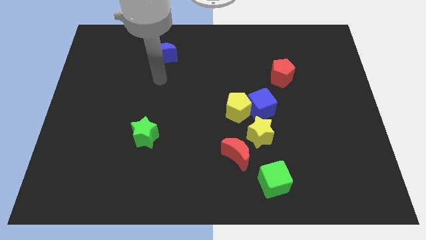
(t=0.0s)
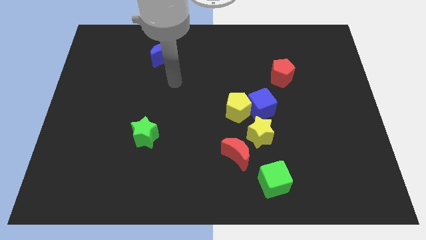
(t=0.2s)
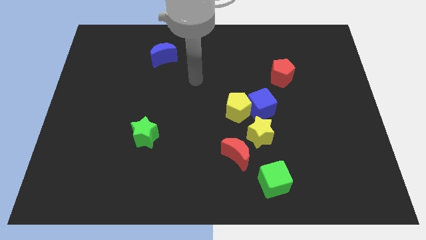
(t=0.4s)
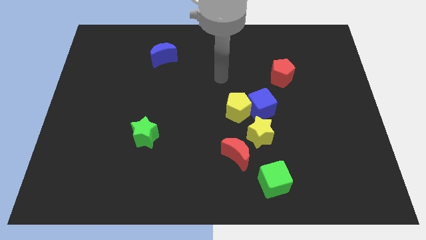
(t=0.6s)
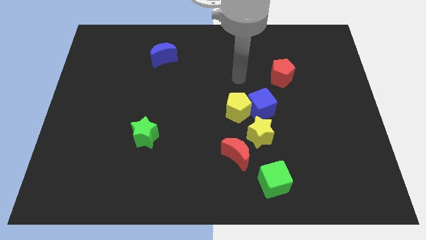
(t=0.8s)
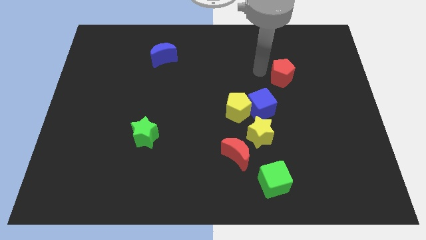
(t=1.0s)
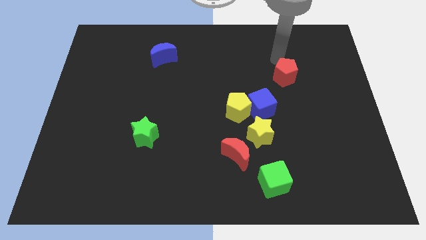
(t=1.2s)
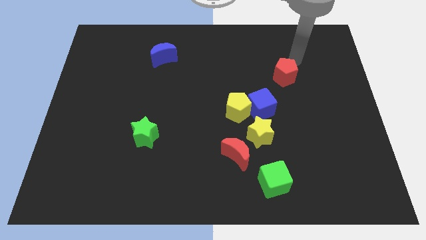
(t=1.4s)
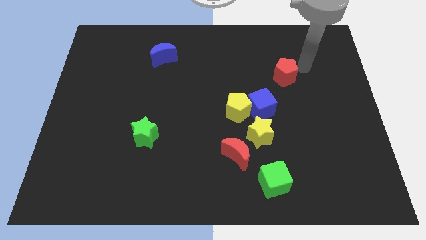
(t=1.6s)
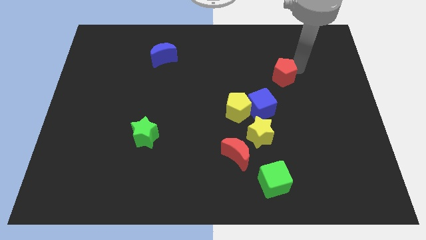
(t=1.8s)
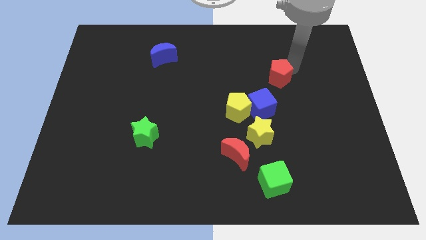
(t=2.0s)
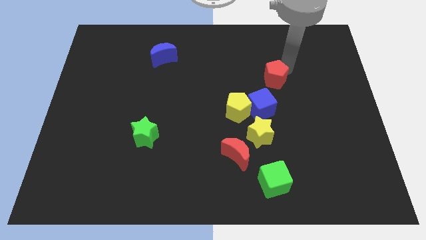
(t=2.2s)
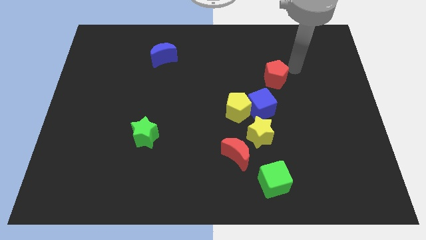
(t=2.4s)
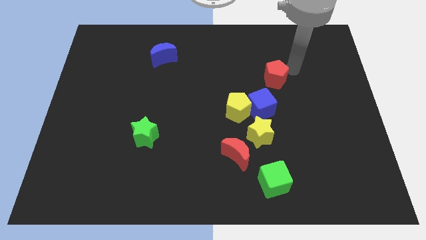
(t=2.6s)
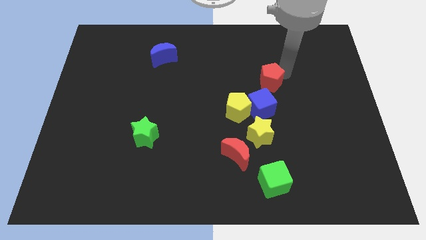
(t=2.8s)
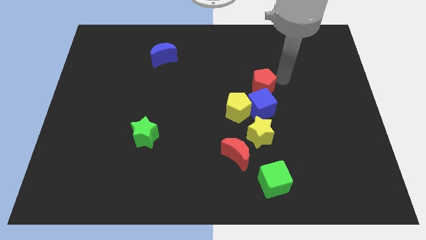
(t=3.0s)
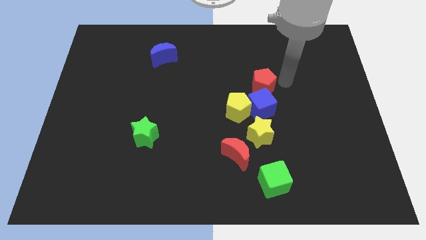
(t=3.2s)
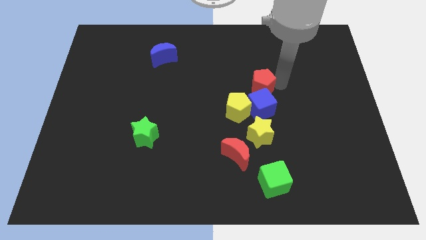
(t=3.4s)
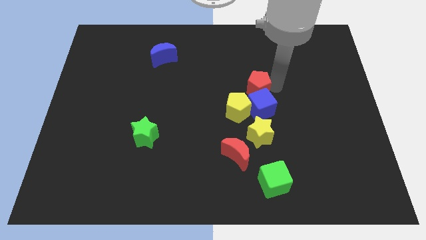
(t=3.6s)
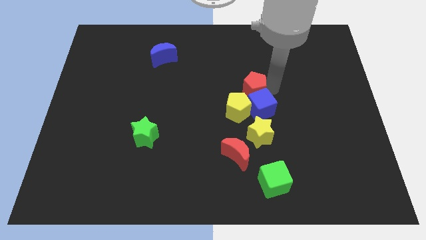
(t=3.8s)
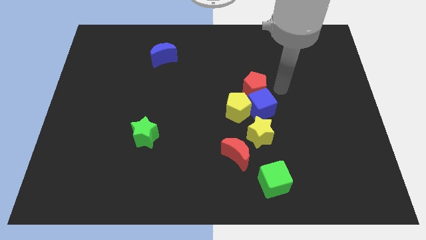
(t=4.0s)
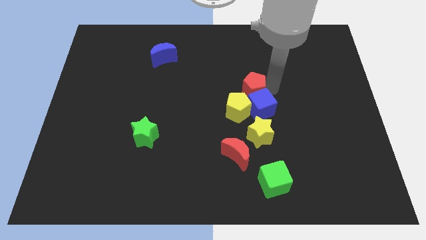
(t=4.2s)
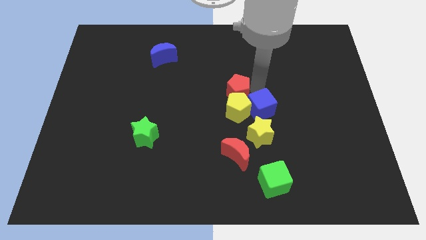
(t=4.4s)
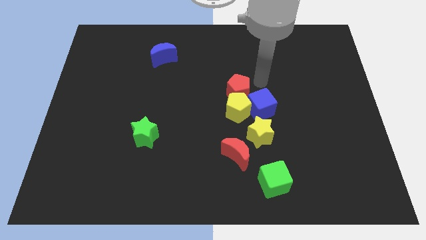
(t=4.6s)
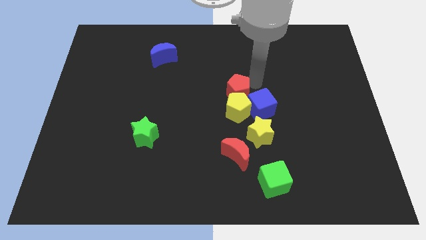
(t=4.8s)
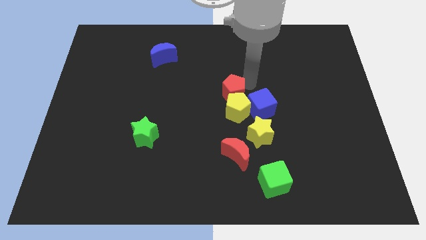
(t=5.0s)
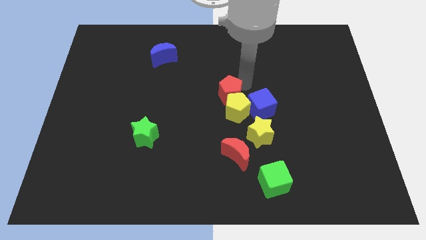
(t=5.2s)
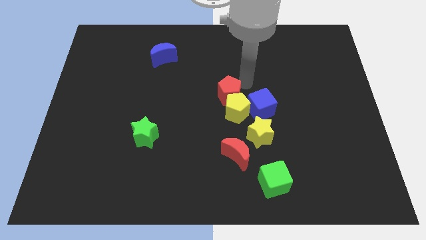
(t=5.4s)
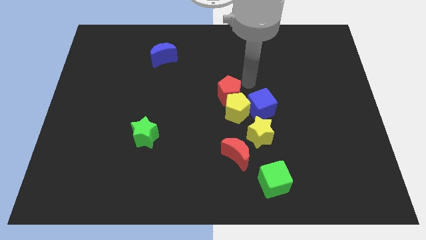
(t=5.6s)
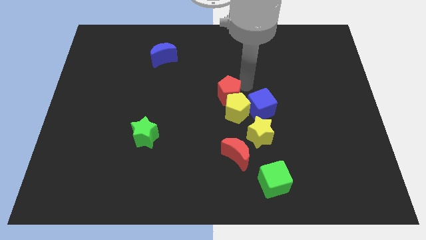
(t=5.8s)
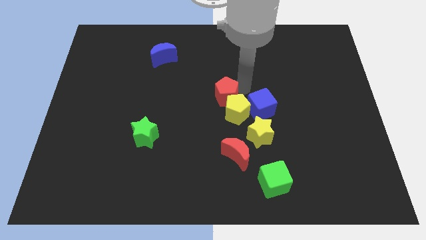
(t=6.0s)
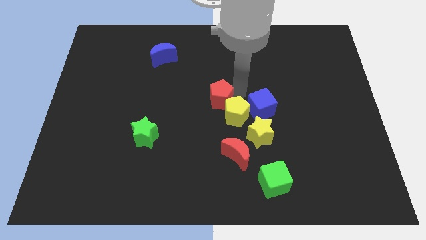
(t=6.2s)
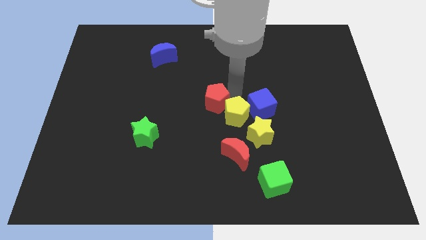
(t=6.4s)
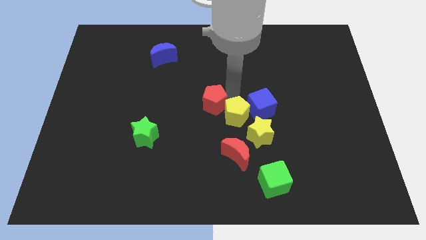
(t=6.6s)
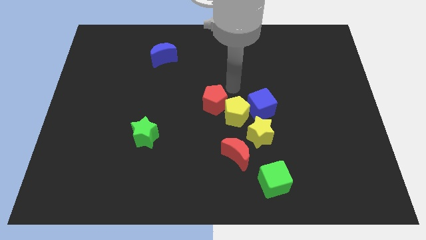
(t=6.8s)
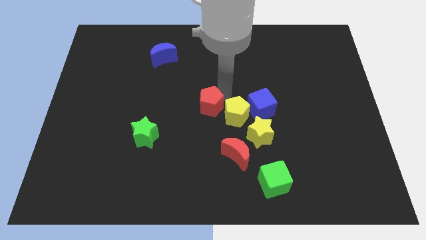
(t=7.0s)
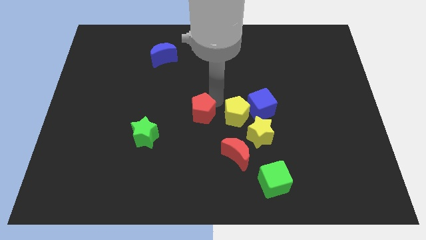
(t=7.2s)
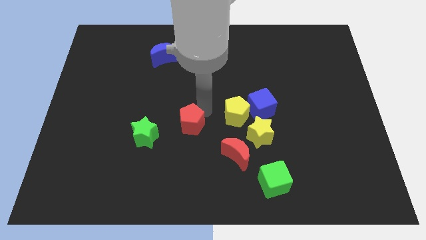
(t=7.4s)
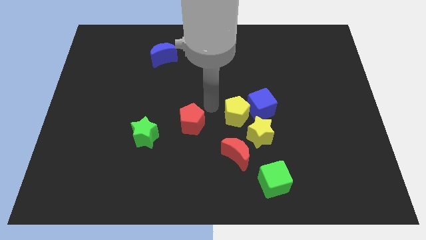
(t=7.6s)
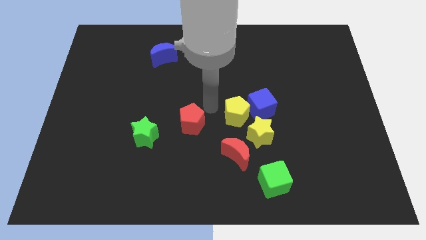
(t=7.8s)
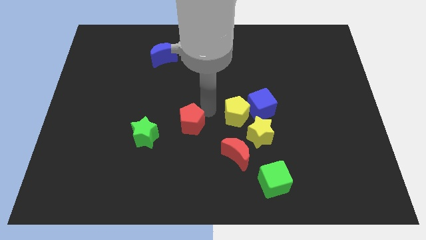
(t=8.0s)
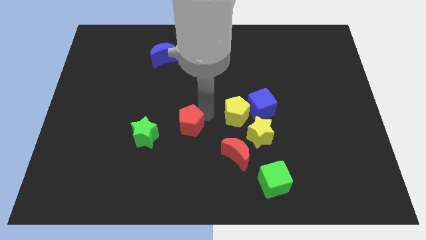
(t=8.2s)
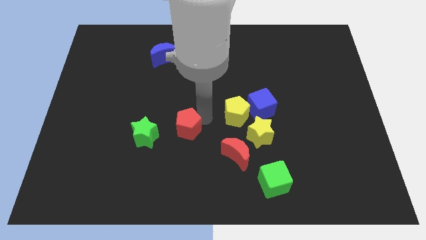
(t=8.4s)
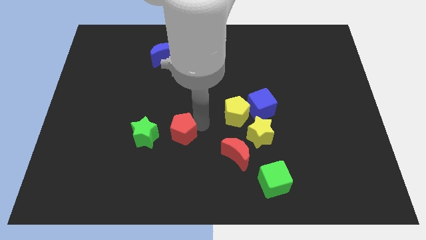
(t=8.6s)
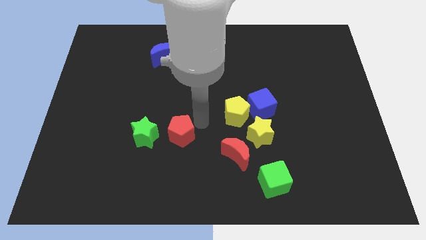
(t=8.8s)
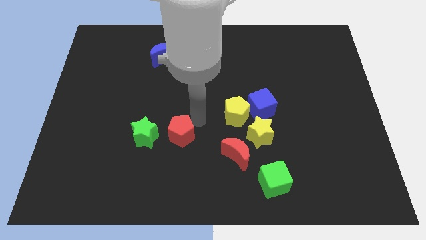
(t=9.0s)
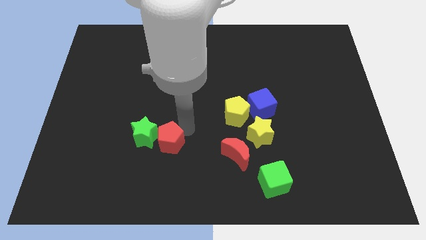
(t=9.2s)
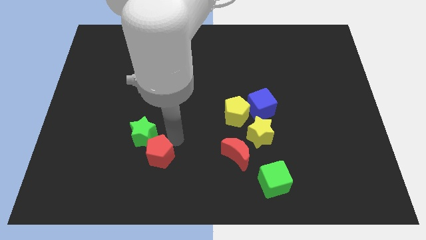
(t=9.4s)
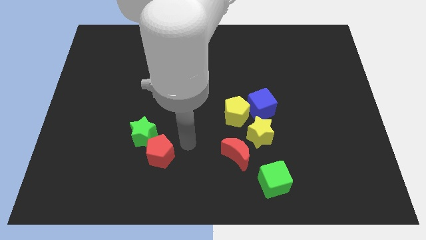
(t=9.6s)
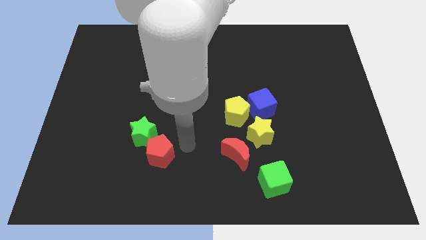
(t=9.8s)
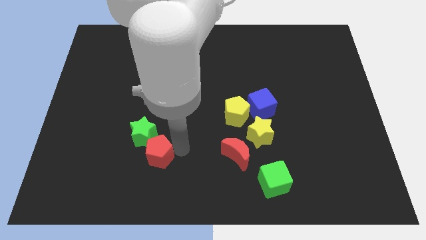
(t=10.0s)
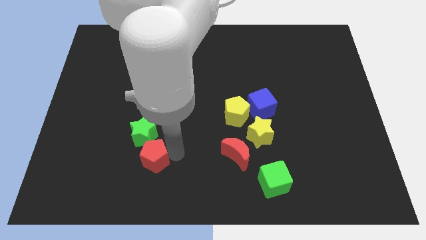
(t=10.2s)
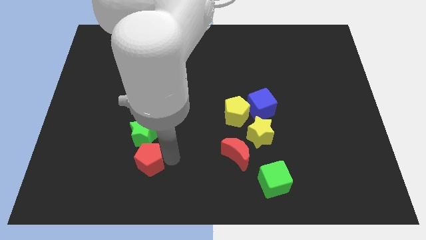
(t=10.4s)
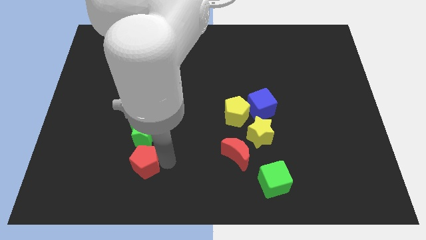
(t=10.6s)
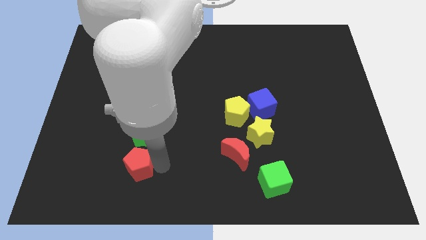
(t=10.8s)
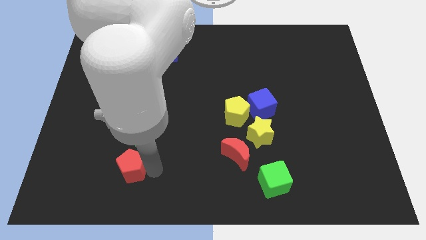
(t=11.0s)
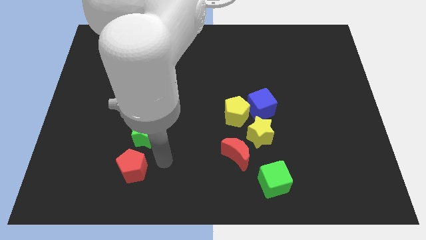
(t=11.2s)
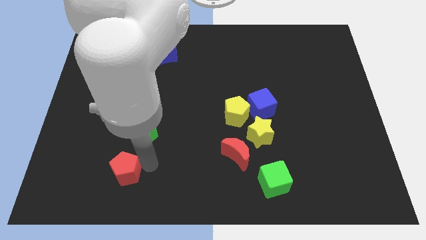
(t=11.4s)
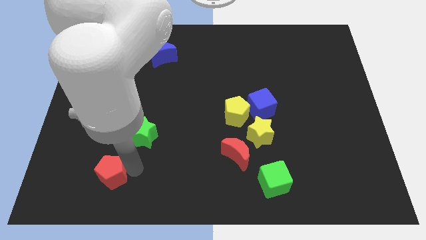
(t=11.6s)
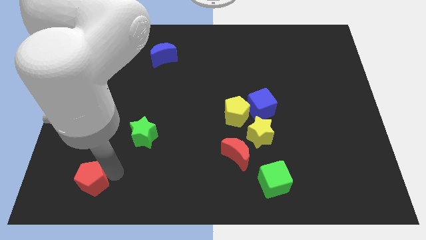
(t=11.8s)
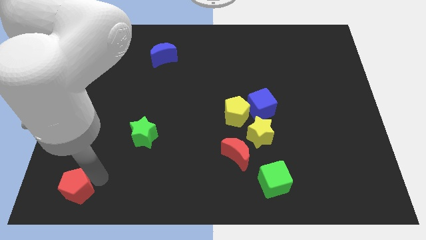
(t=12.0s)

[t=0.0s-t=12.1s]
push the red pentagon to the lower left corner
